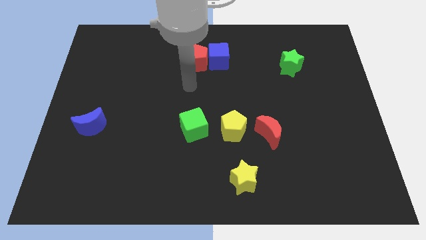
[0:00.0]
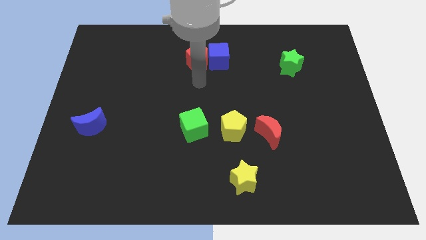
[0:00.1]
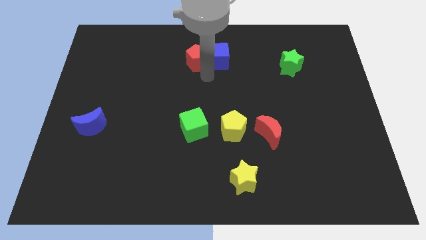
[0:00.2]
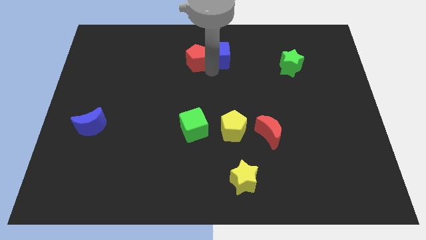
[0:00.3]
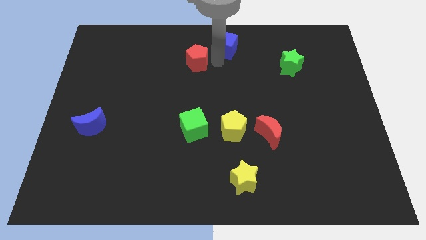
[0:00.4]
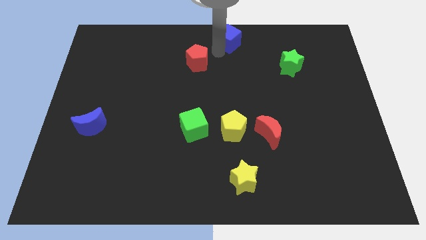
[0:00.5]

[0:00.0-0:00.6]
pull the red pentagon apart from the blue cube

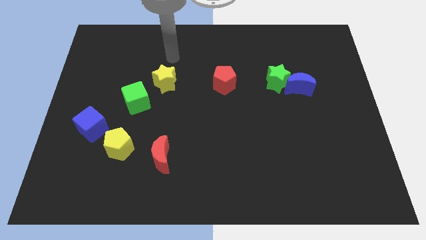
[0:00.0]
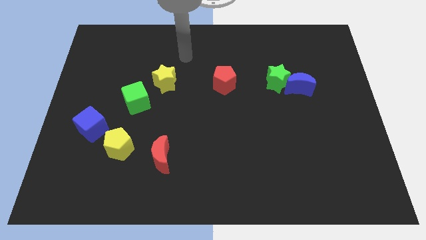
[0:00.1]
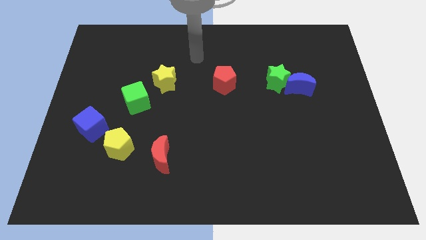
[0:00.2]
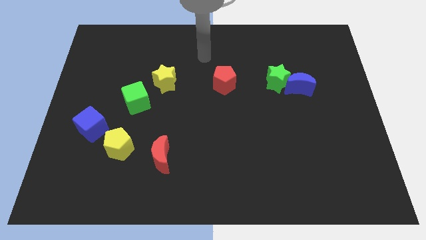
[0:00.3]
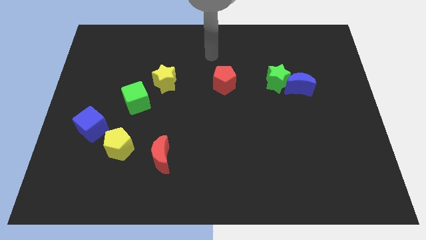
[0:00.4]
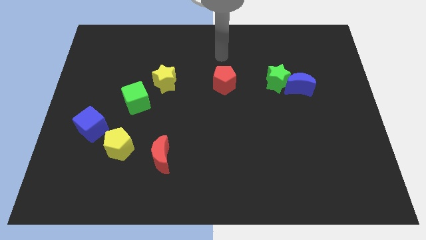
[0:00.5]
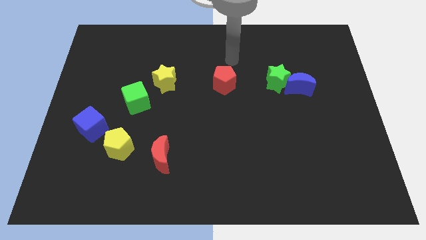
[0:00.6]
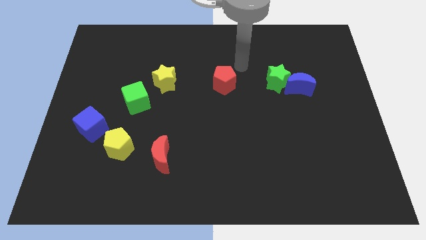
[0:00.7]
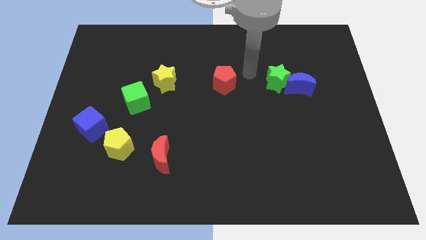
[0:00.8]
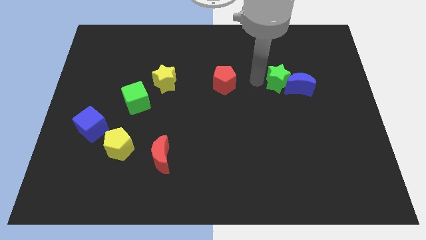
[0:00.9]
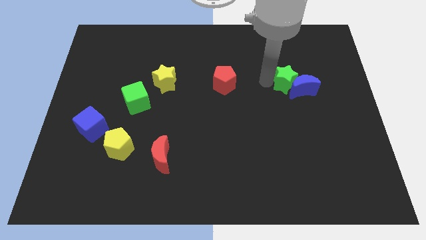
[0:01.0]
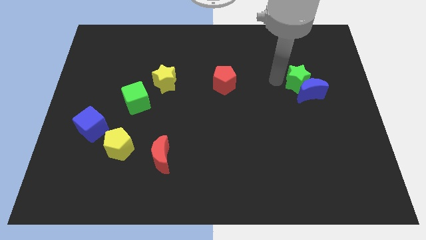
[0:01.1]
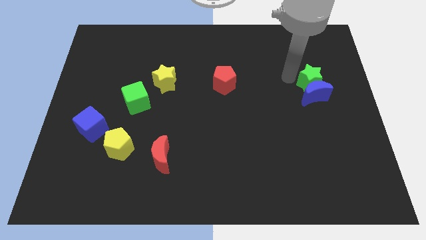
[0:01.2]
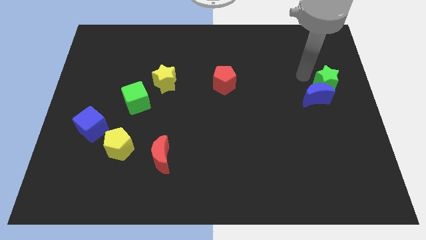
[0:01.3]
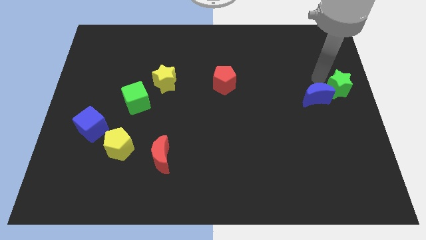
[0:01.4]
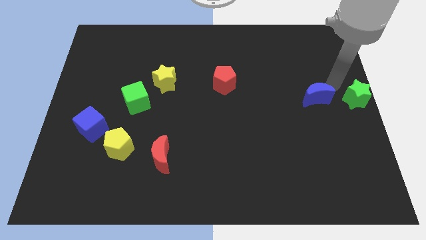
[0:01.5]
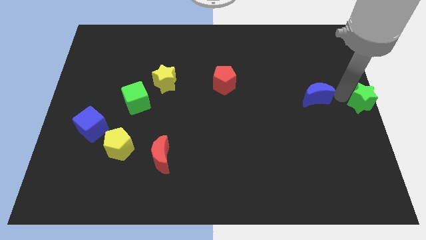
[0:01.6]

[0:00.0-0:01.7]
move the blue moon away from the green star

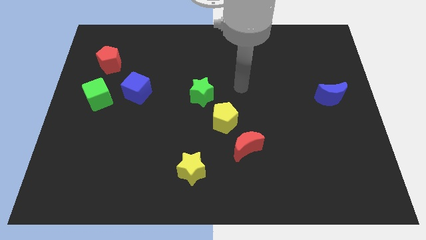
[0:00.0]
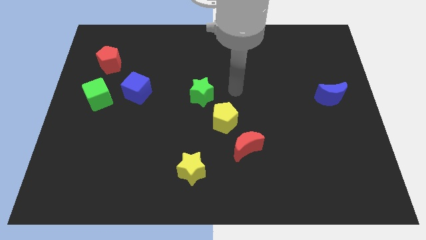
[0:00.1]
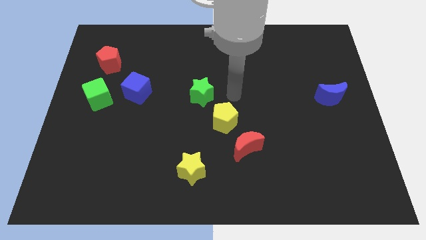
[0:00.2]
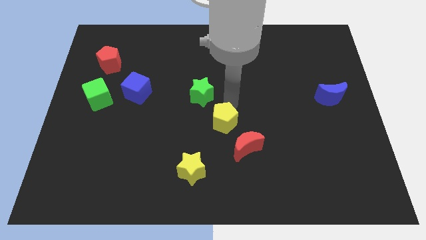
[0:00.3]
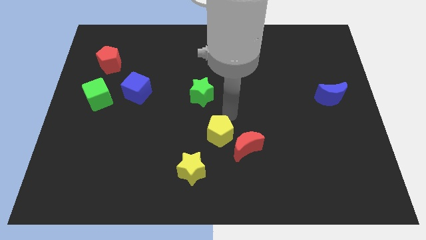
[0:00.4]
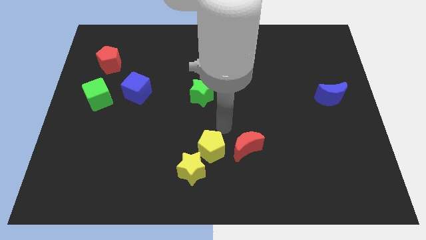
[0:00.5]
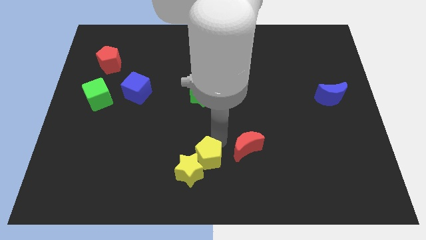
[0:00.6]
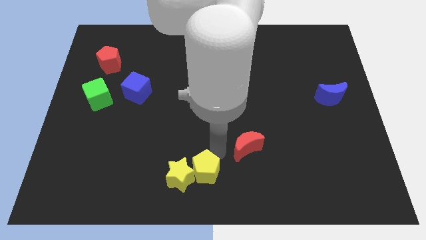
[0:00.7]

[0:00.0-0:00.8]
move the red moon away from the yellow pentagon

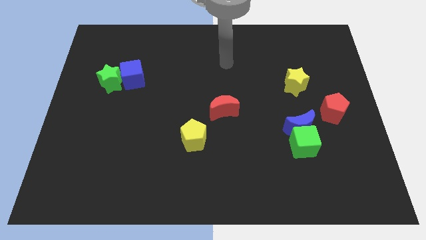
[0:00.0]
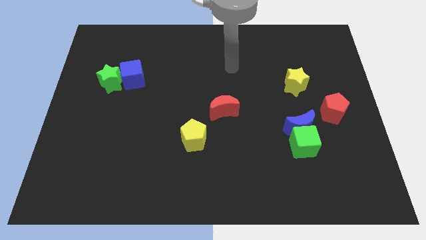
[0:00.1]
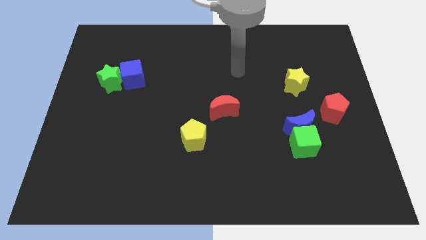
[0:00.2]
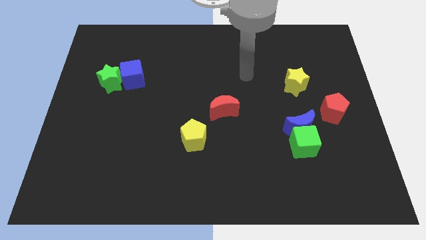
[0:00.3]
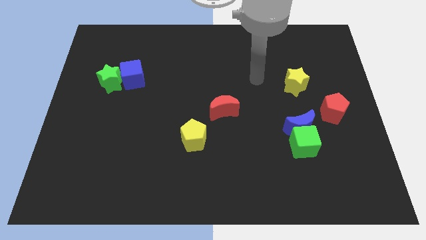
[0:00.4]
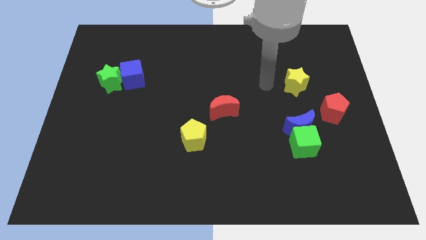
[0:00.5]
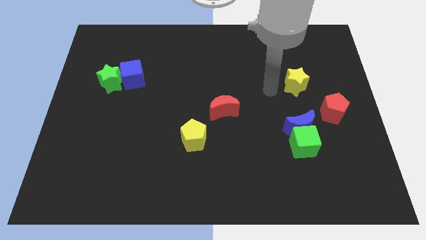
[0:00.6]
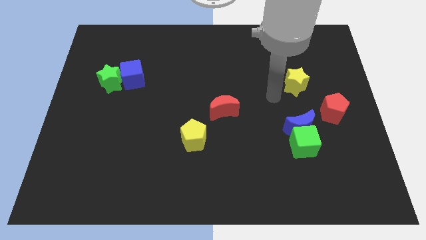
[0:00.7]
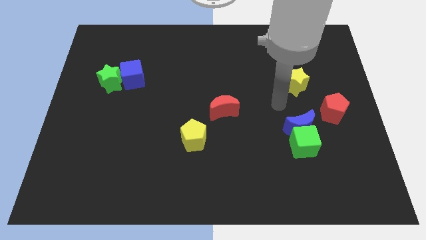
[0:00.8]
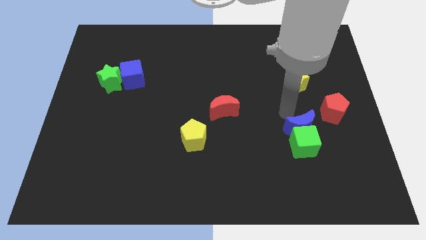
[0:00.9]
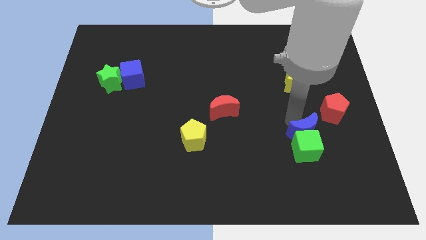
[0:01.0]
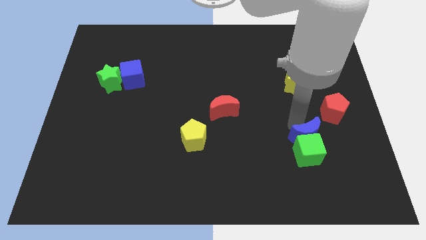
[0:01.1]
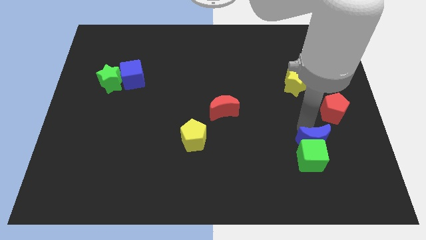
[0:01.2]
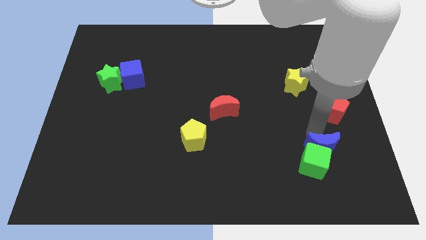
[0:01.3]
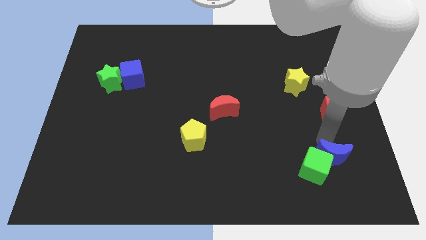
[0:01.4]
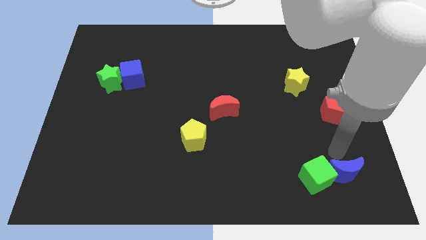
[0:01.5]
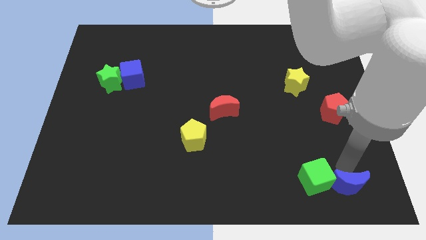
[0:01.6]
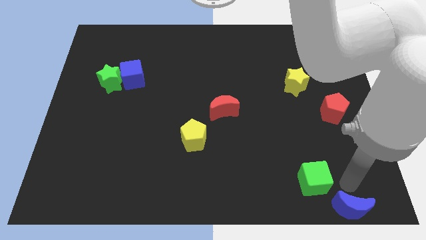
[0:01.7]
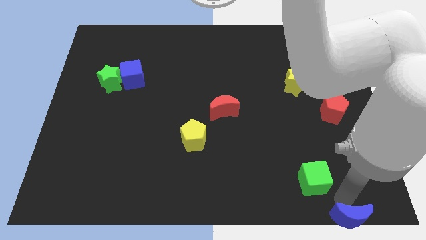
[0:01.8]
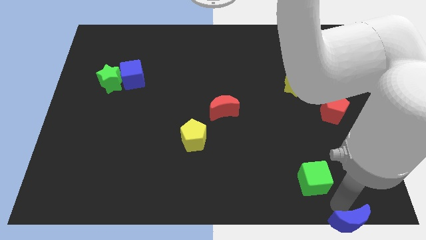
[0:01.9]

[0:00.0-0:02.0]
separate the green cube from the blue moon

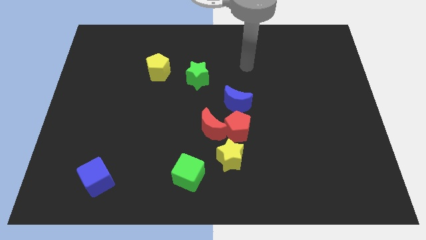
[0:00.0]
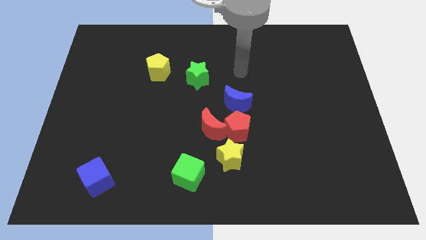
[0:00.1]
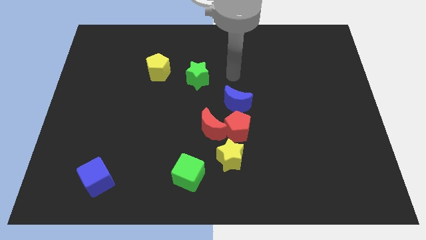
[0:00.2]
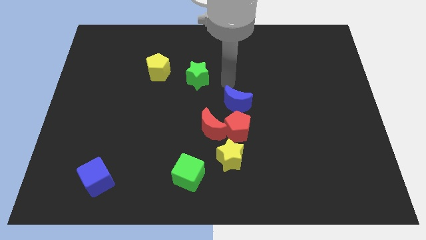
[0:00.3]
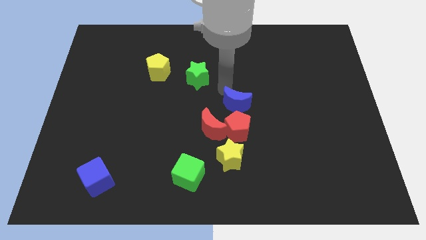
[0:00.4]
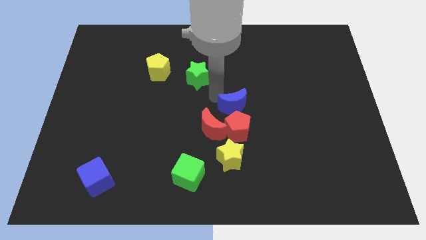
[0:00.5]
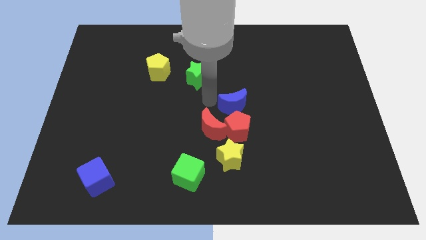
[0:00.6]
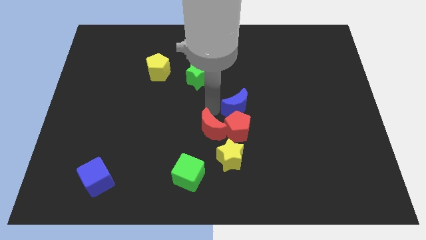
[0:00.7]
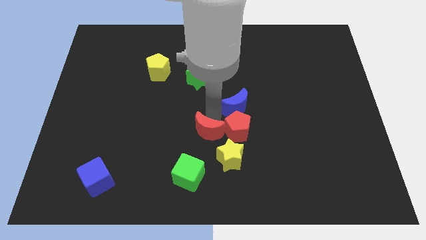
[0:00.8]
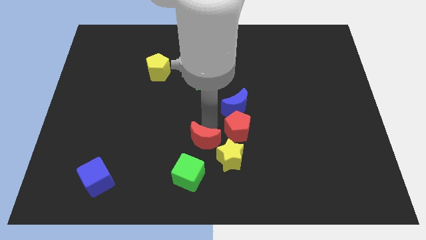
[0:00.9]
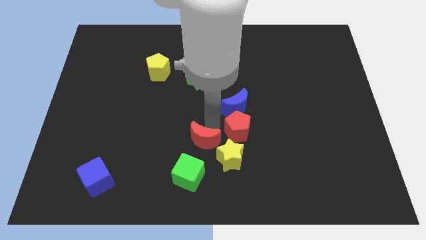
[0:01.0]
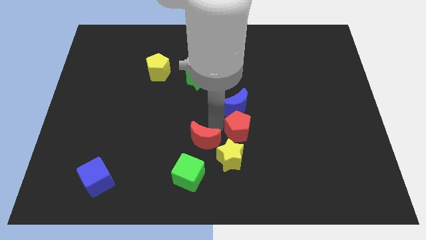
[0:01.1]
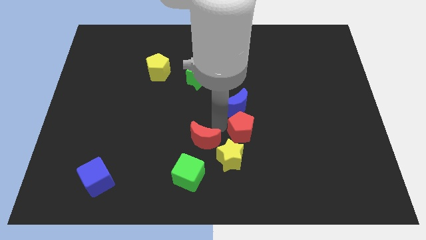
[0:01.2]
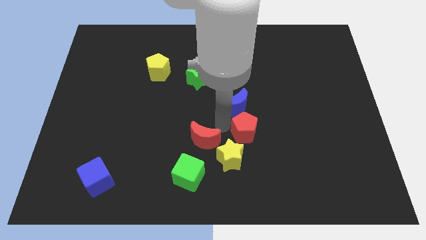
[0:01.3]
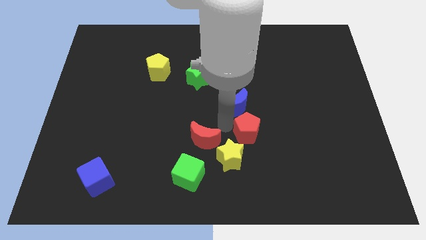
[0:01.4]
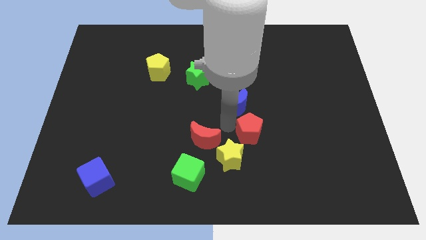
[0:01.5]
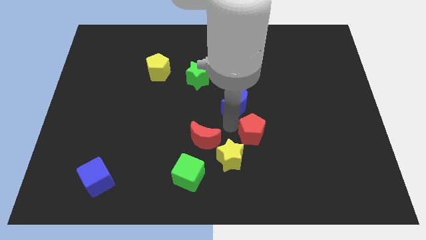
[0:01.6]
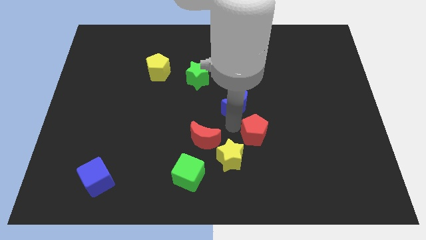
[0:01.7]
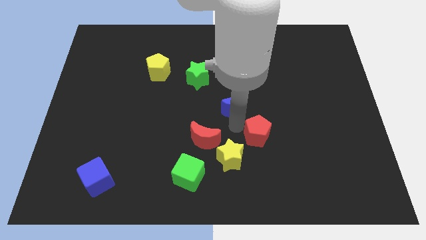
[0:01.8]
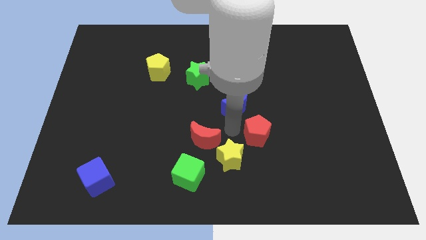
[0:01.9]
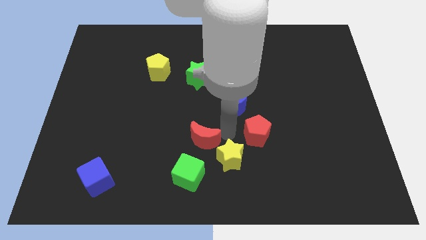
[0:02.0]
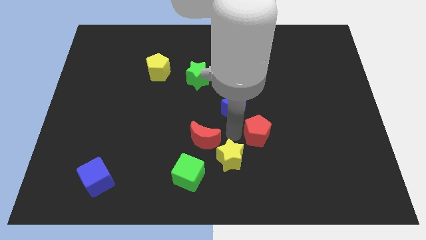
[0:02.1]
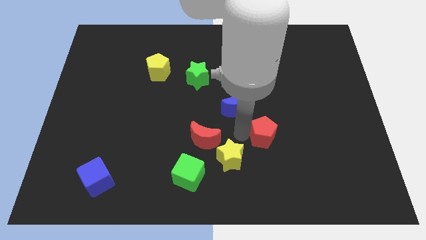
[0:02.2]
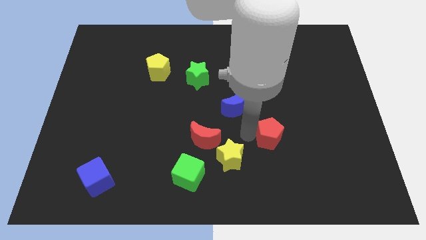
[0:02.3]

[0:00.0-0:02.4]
separate the red pentagon from the red moon, yellow star, and blue moon

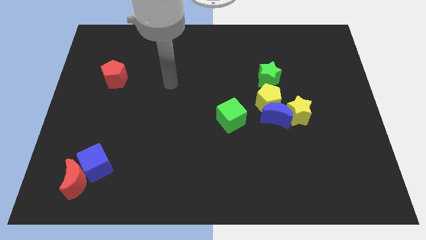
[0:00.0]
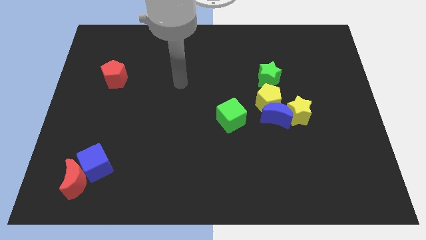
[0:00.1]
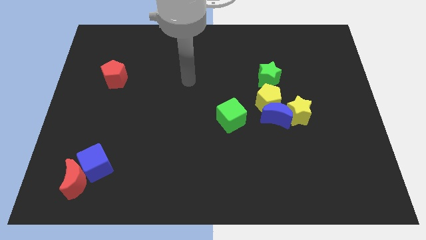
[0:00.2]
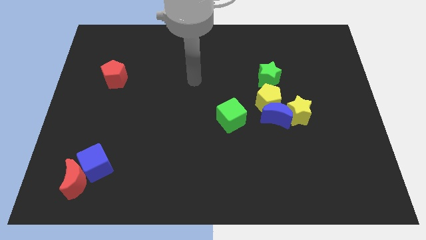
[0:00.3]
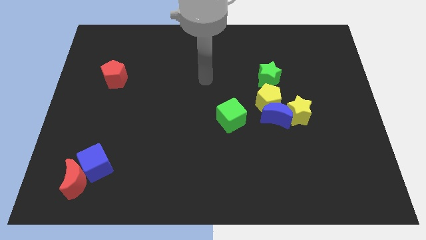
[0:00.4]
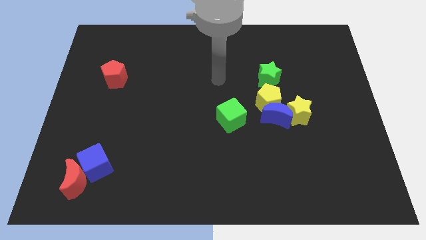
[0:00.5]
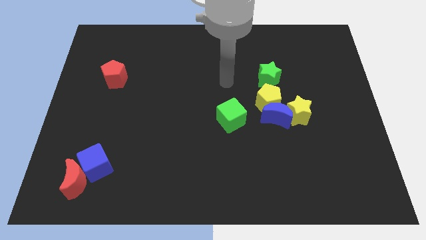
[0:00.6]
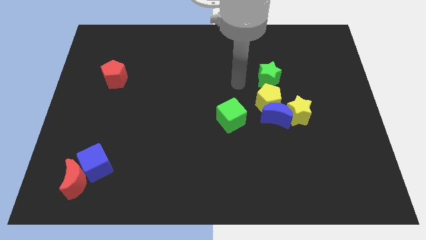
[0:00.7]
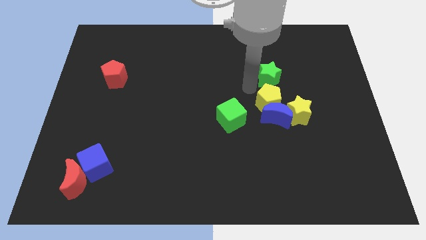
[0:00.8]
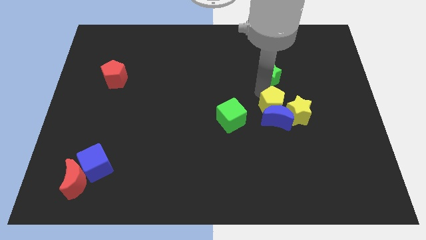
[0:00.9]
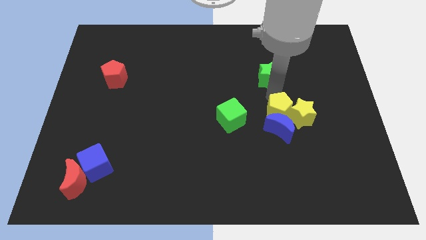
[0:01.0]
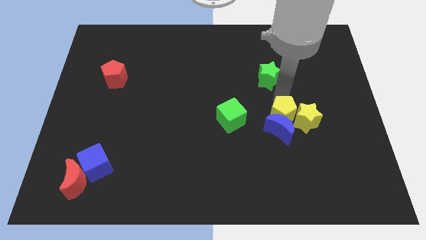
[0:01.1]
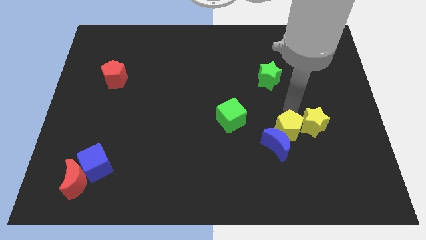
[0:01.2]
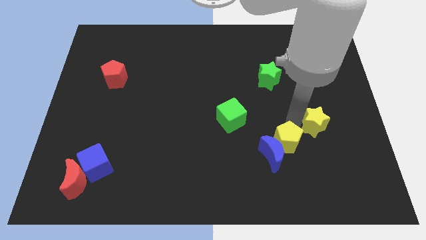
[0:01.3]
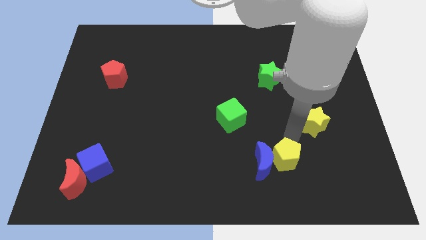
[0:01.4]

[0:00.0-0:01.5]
move the blue moon away from the yellow pentagon and yellow star
